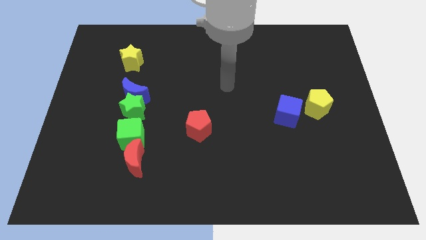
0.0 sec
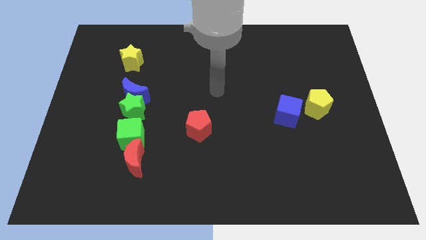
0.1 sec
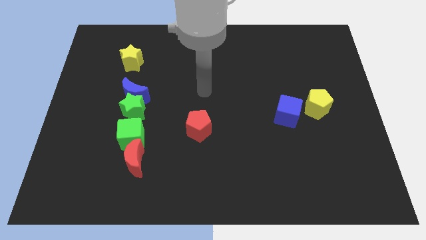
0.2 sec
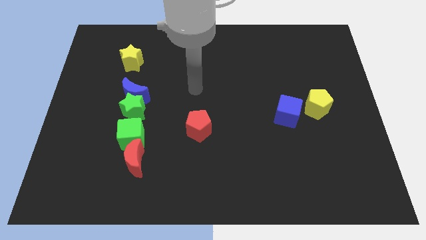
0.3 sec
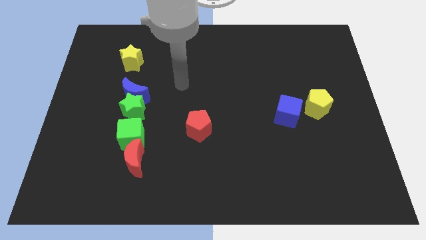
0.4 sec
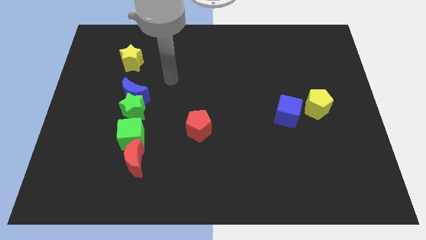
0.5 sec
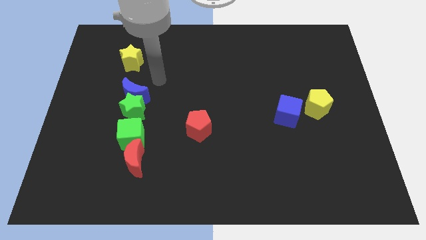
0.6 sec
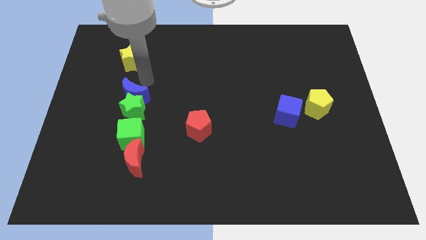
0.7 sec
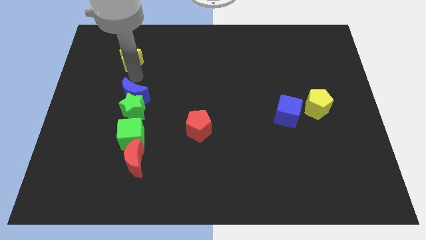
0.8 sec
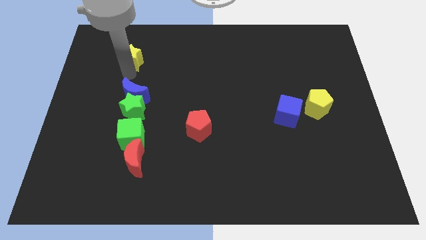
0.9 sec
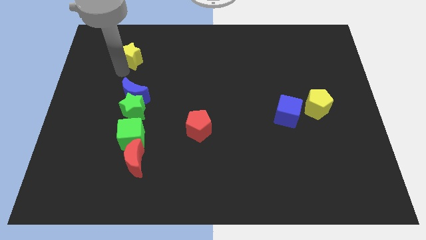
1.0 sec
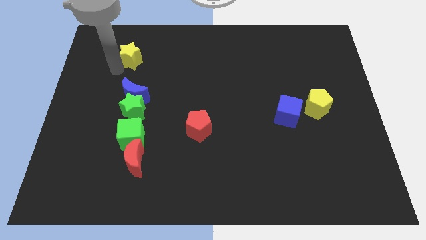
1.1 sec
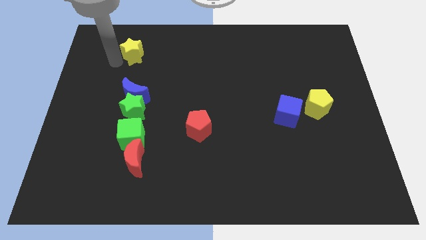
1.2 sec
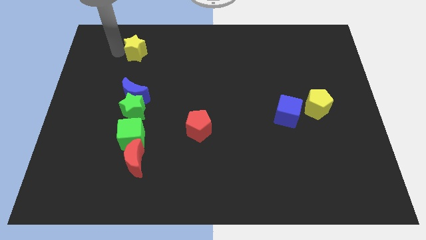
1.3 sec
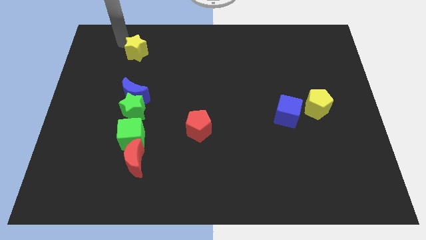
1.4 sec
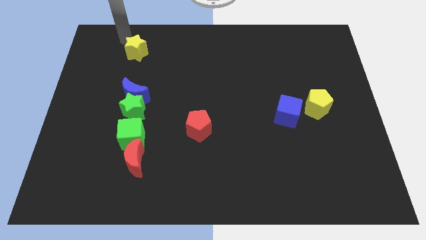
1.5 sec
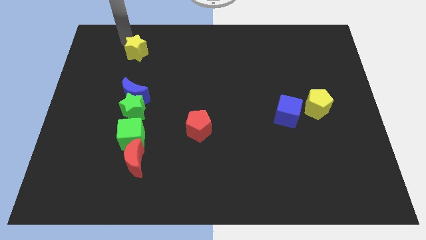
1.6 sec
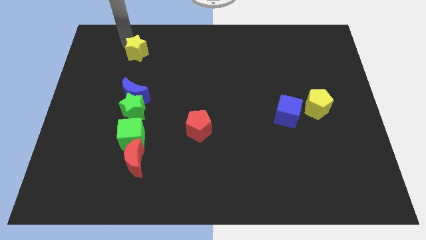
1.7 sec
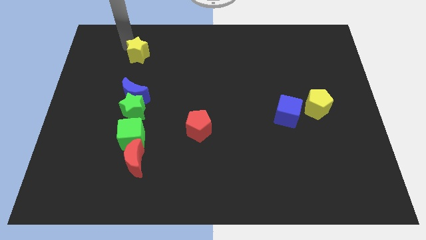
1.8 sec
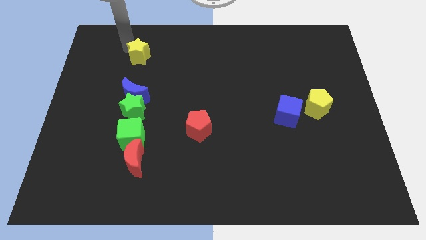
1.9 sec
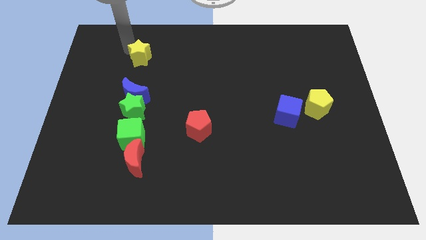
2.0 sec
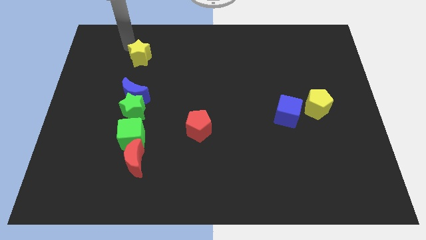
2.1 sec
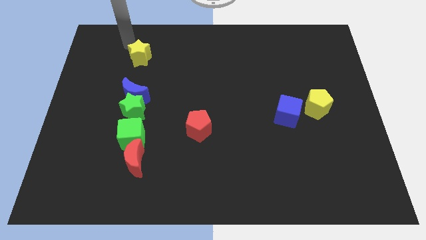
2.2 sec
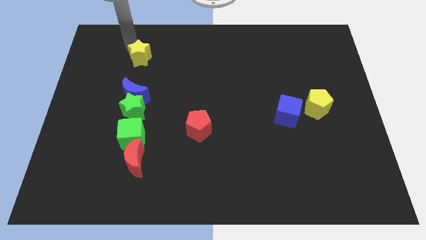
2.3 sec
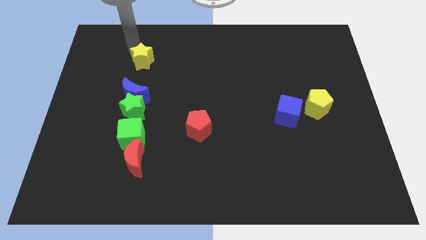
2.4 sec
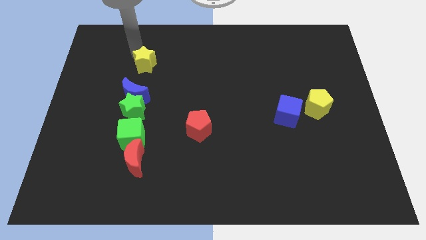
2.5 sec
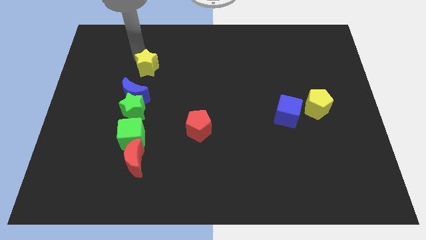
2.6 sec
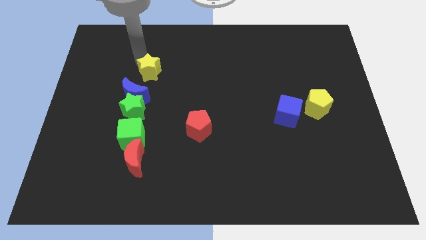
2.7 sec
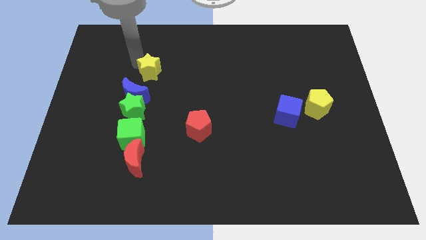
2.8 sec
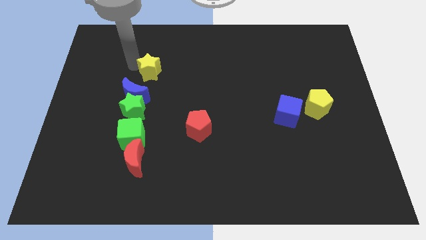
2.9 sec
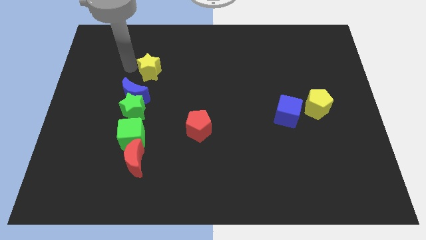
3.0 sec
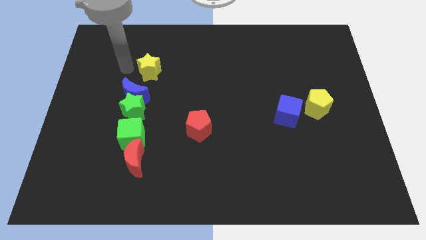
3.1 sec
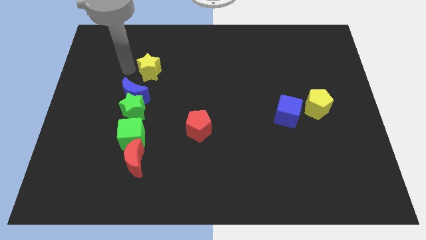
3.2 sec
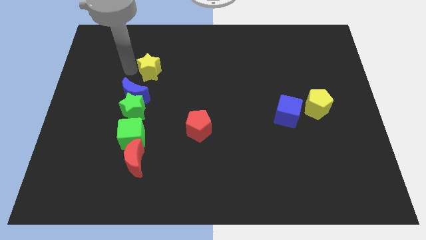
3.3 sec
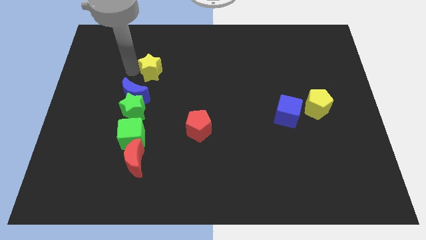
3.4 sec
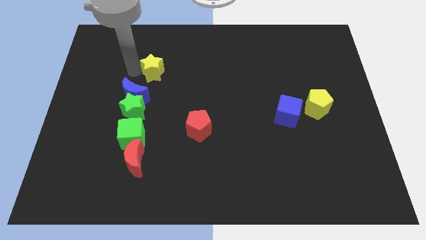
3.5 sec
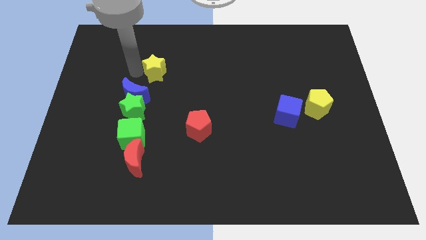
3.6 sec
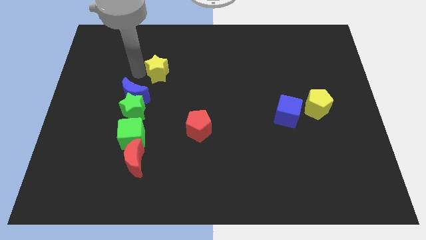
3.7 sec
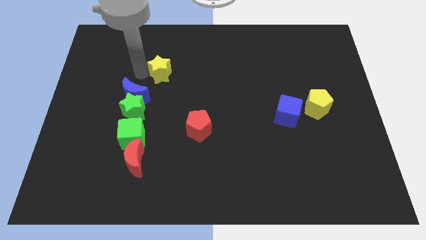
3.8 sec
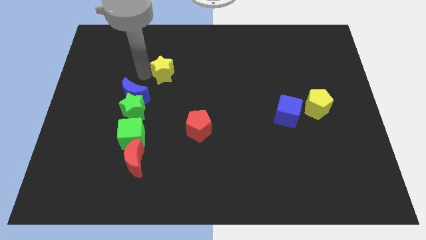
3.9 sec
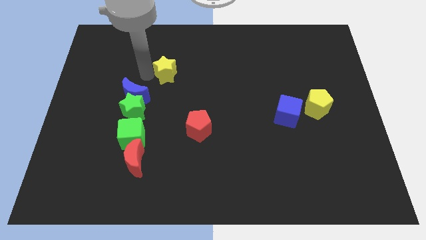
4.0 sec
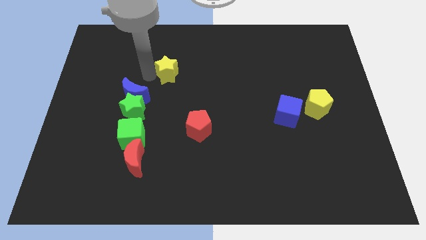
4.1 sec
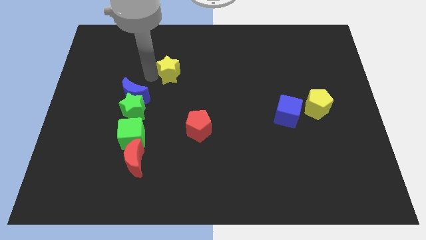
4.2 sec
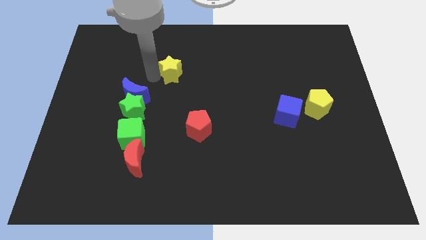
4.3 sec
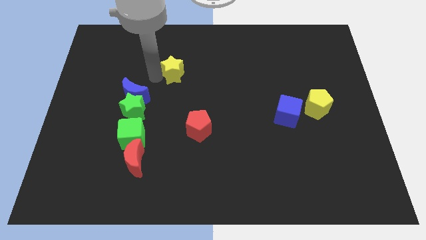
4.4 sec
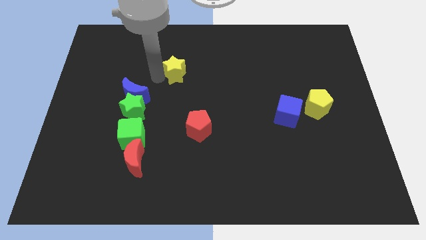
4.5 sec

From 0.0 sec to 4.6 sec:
push the yellow star to the center

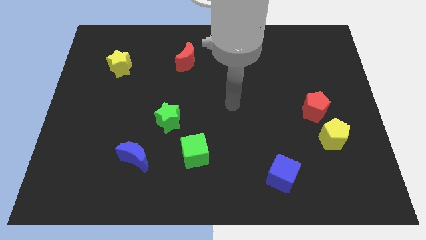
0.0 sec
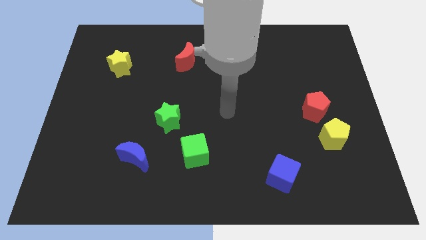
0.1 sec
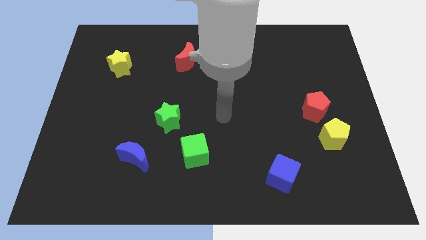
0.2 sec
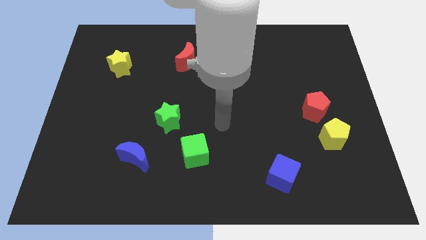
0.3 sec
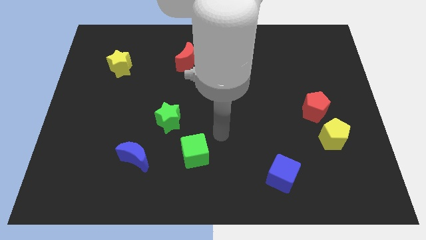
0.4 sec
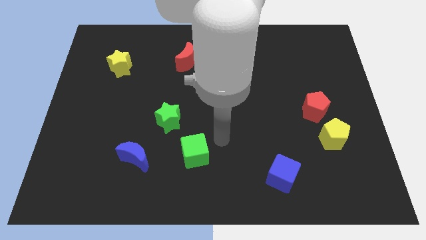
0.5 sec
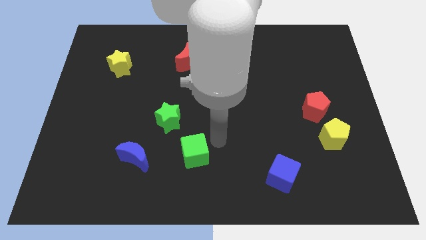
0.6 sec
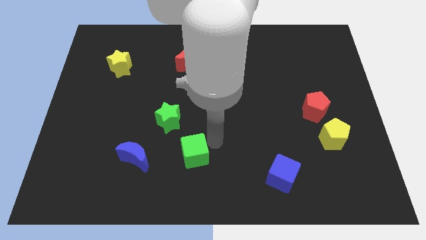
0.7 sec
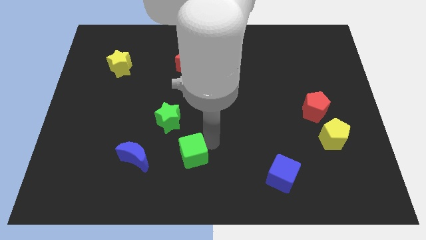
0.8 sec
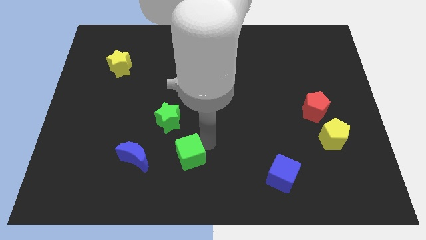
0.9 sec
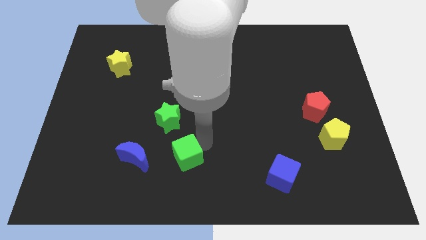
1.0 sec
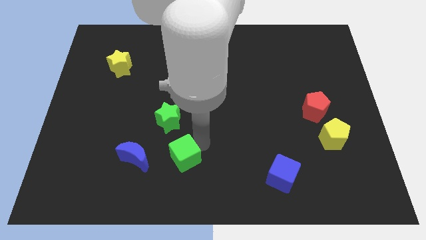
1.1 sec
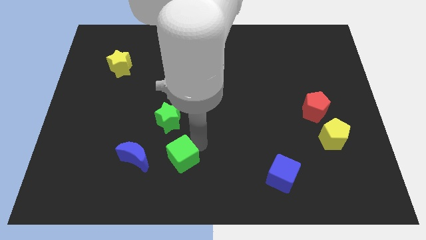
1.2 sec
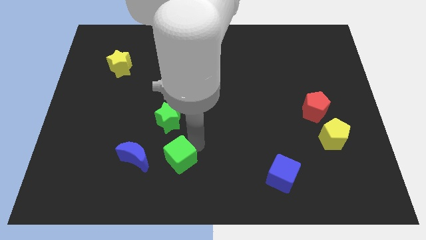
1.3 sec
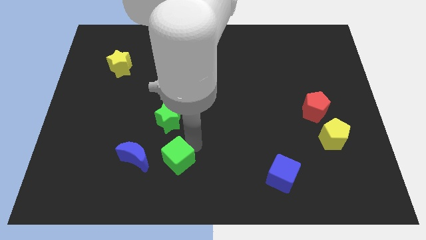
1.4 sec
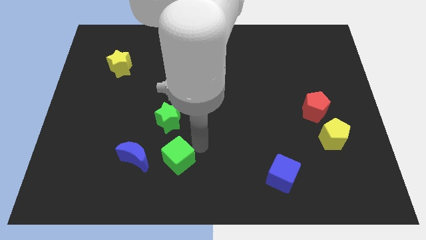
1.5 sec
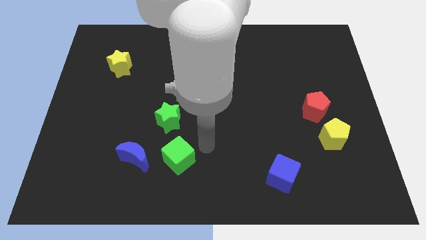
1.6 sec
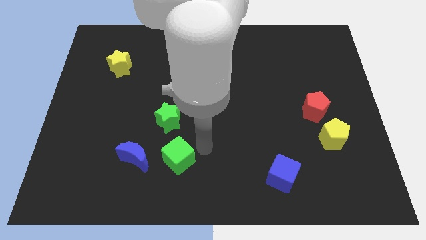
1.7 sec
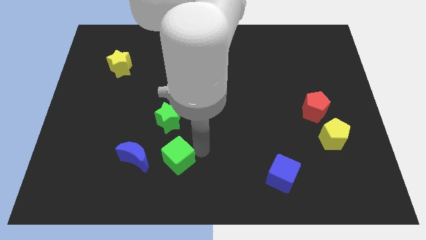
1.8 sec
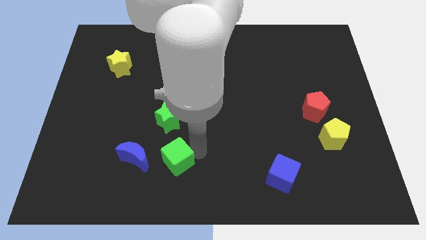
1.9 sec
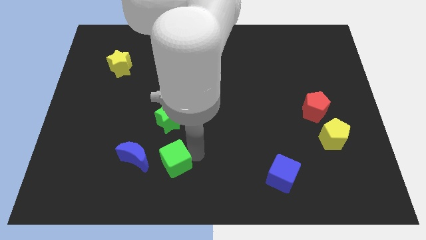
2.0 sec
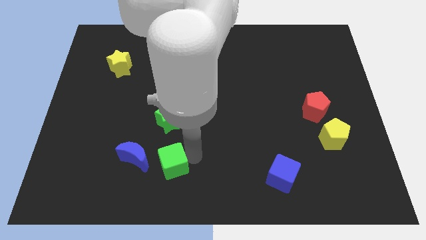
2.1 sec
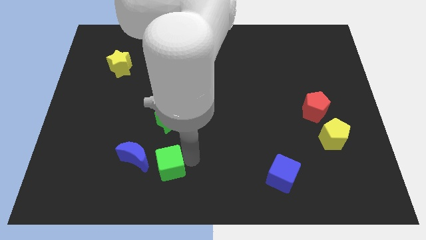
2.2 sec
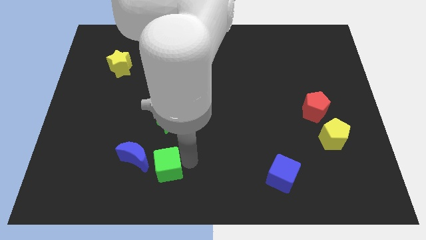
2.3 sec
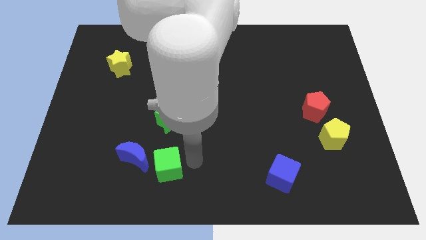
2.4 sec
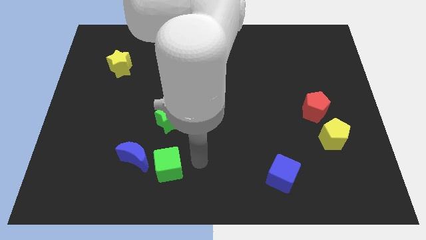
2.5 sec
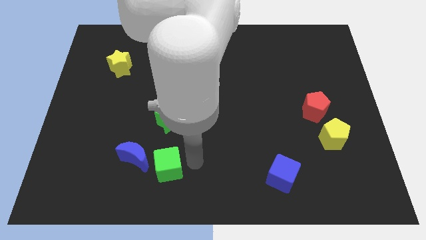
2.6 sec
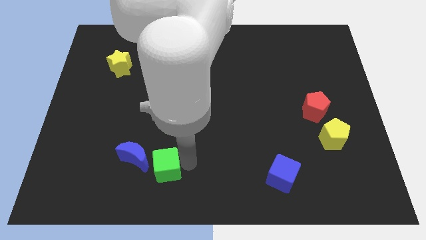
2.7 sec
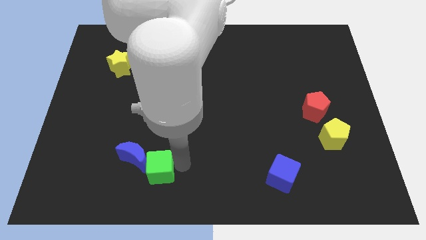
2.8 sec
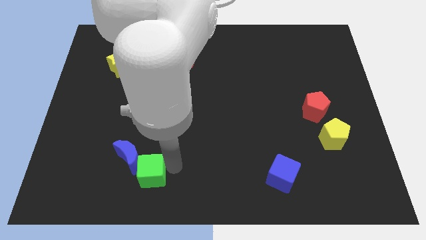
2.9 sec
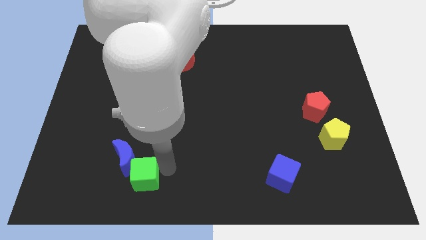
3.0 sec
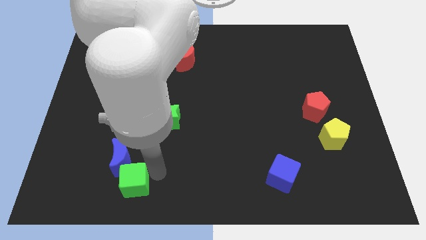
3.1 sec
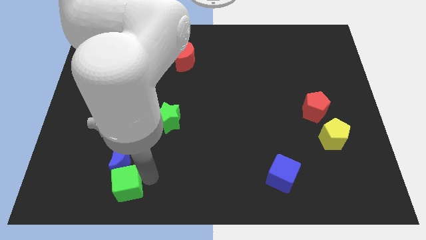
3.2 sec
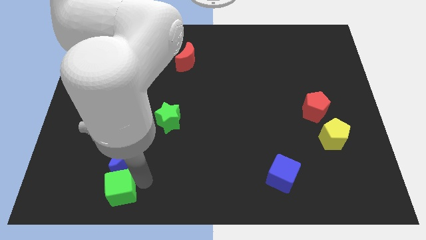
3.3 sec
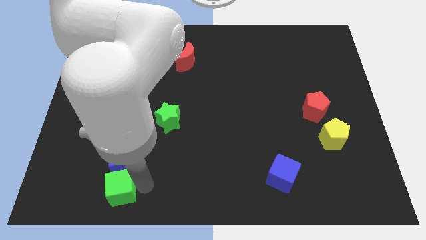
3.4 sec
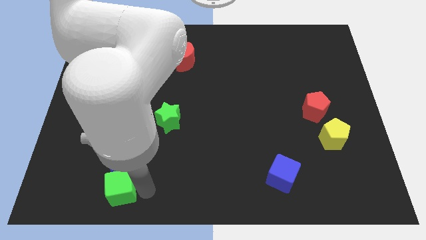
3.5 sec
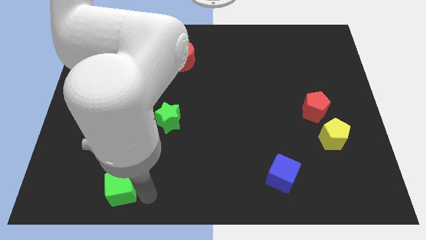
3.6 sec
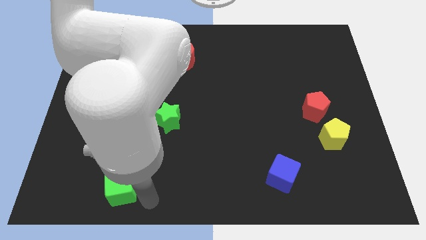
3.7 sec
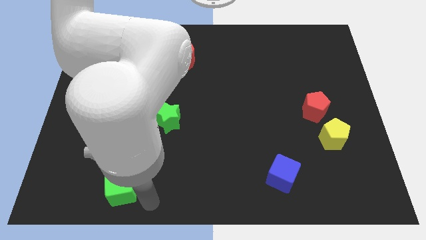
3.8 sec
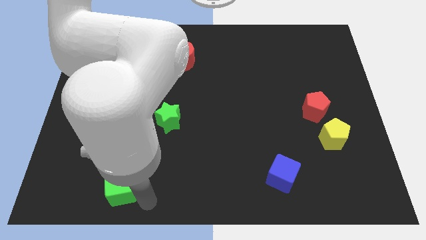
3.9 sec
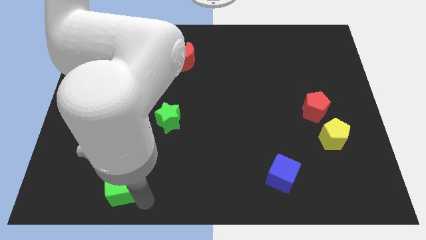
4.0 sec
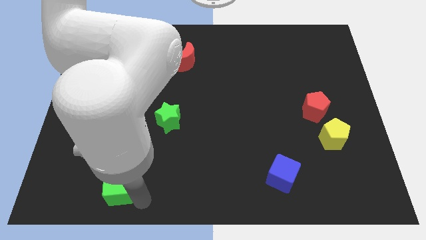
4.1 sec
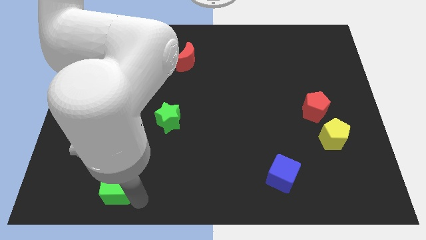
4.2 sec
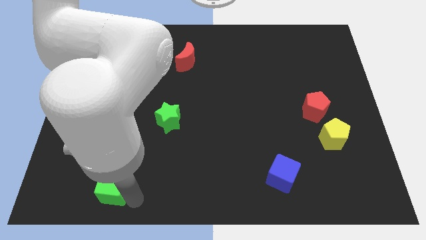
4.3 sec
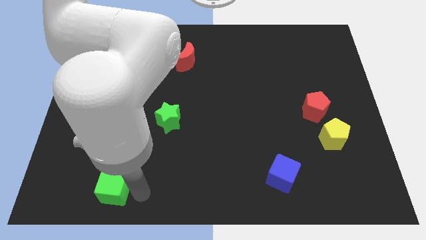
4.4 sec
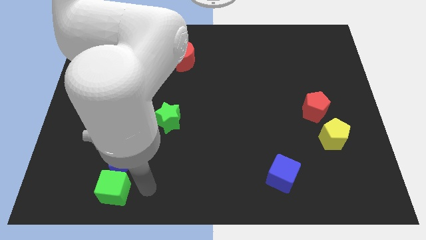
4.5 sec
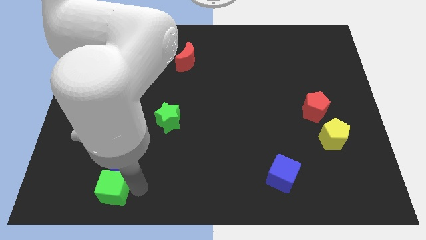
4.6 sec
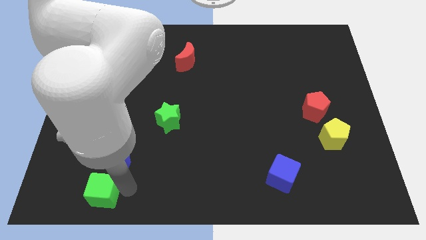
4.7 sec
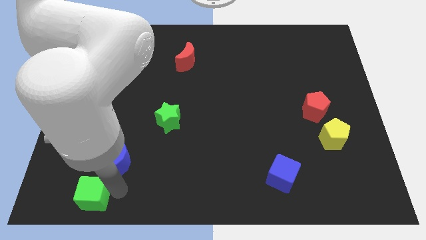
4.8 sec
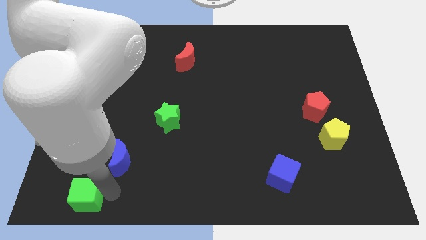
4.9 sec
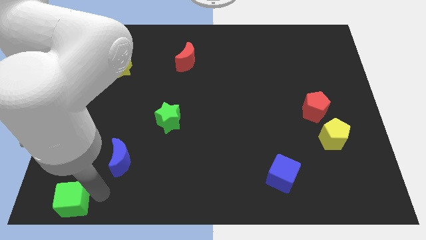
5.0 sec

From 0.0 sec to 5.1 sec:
slide the green cube to the bottom left
